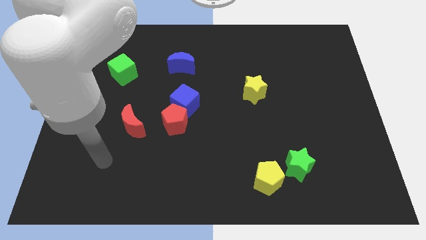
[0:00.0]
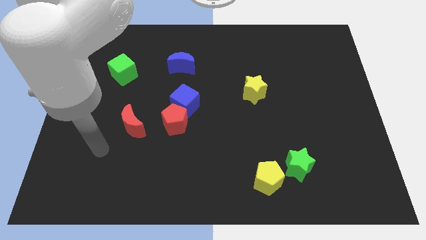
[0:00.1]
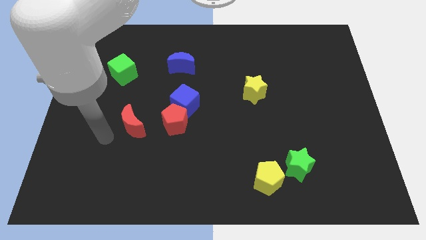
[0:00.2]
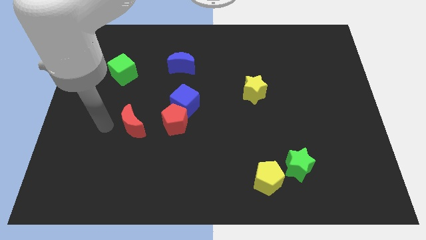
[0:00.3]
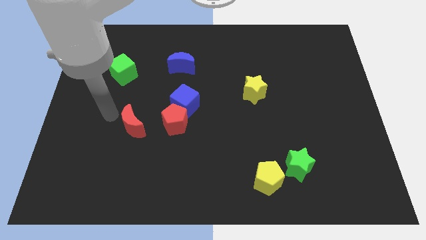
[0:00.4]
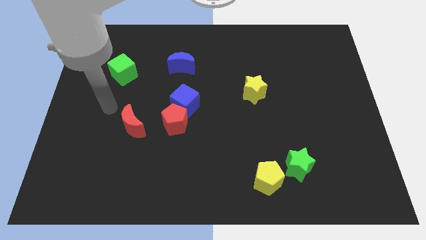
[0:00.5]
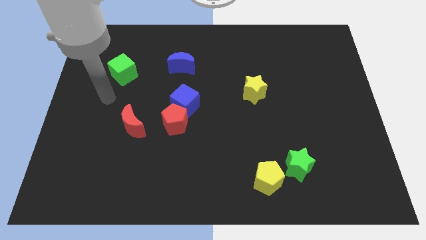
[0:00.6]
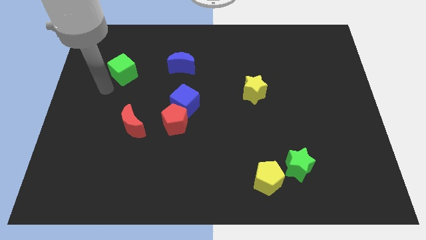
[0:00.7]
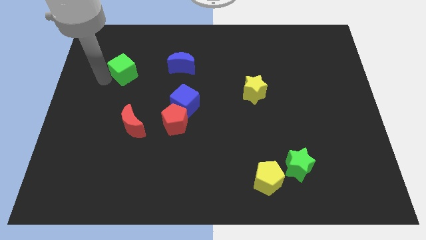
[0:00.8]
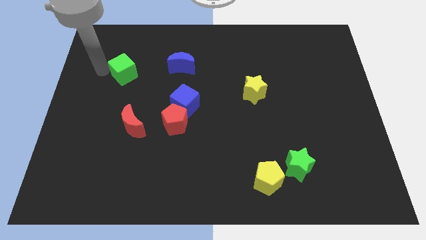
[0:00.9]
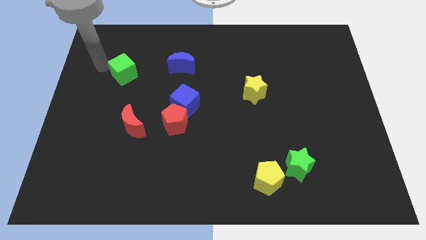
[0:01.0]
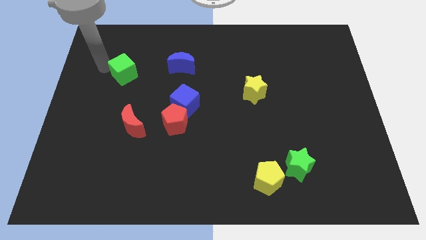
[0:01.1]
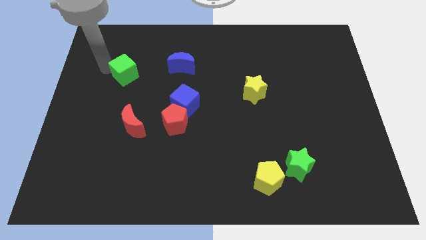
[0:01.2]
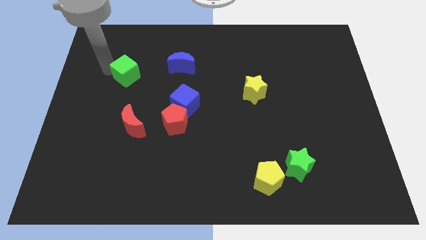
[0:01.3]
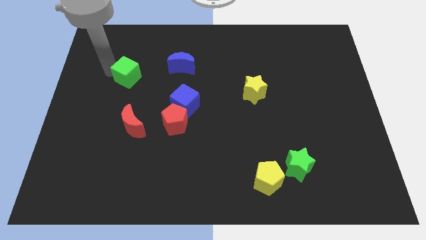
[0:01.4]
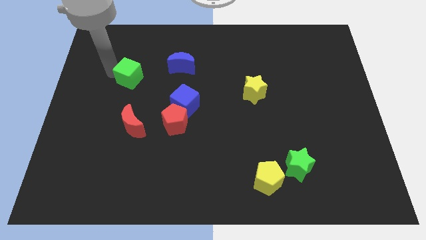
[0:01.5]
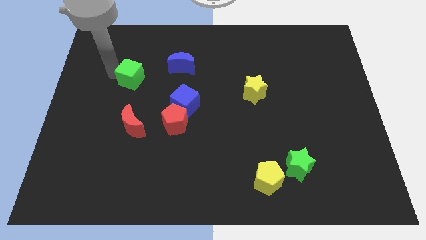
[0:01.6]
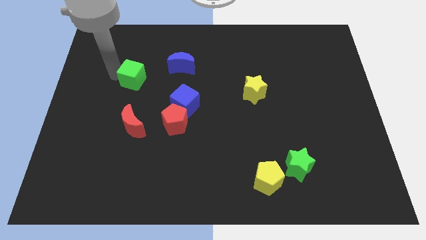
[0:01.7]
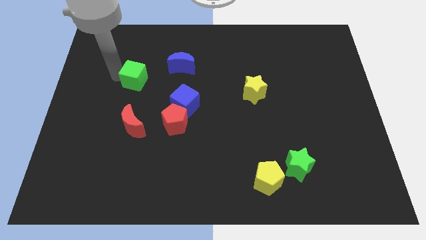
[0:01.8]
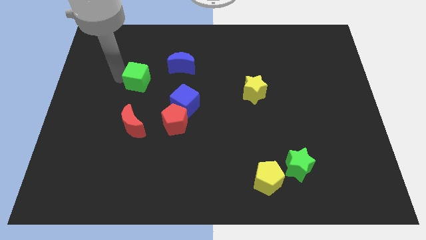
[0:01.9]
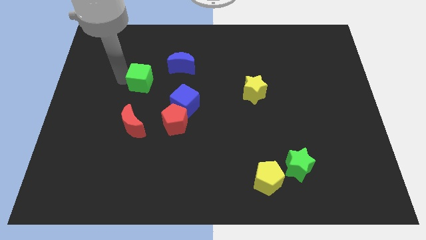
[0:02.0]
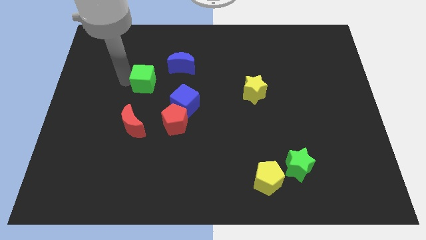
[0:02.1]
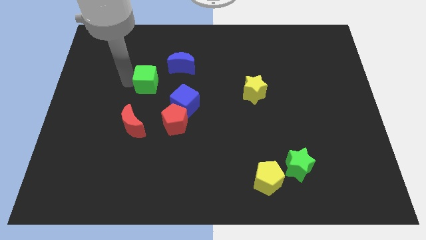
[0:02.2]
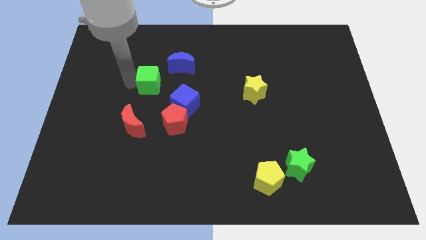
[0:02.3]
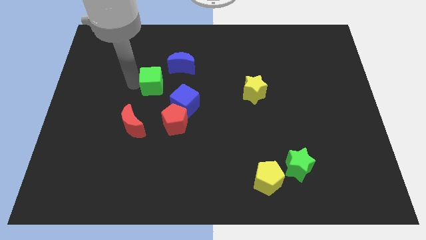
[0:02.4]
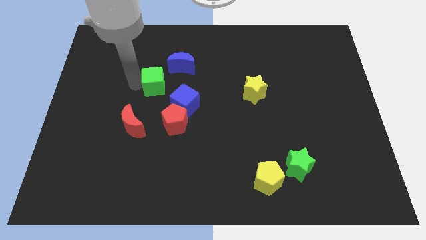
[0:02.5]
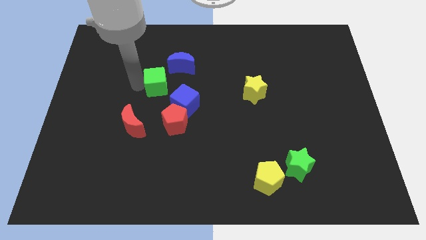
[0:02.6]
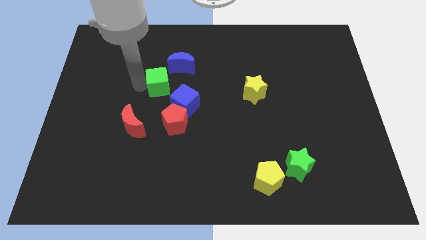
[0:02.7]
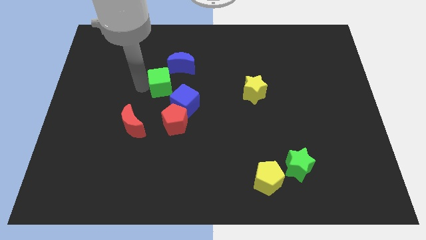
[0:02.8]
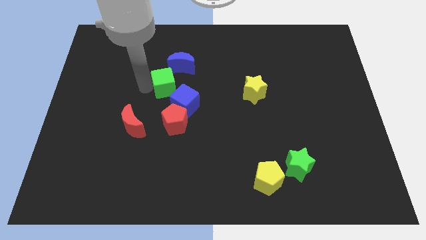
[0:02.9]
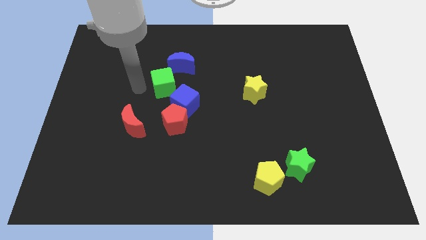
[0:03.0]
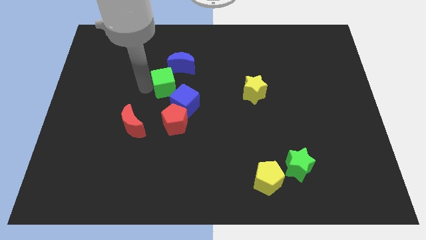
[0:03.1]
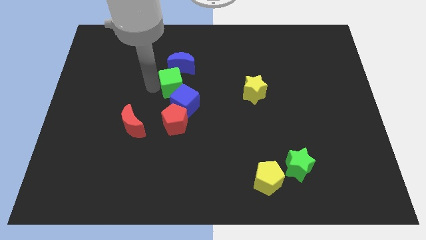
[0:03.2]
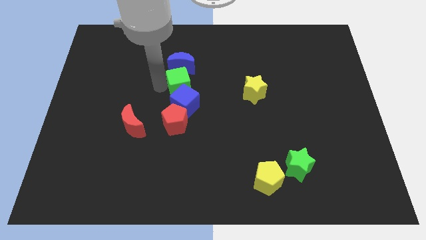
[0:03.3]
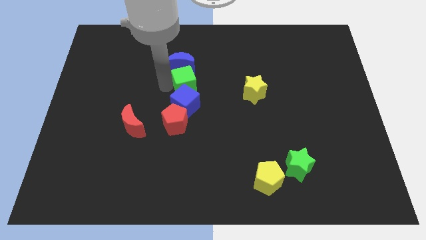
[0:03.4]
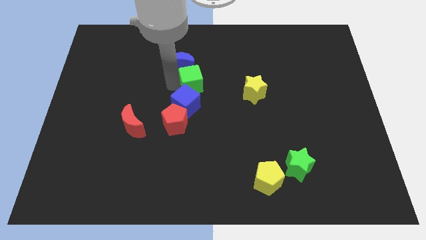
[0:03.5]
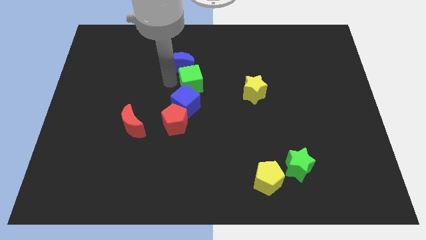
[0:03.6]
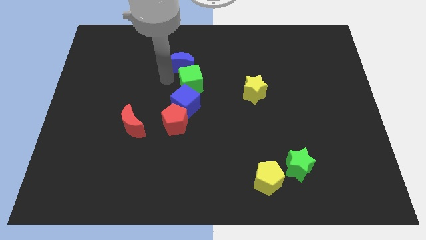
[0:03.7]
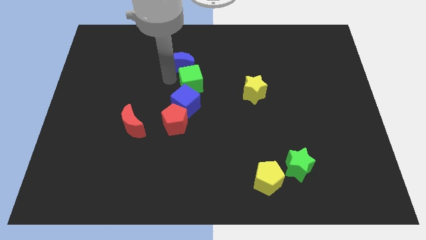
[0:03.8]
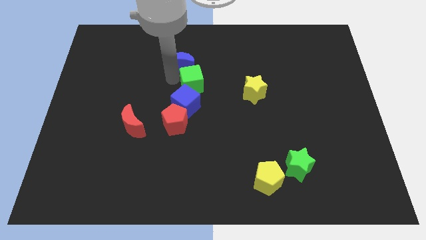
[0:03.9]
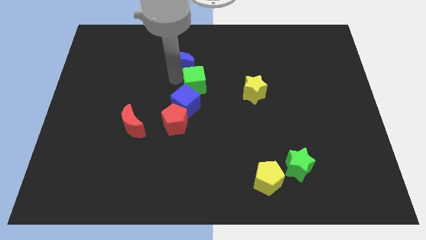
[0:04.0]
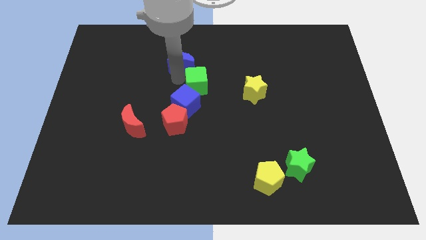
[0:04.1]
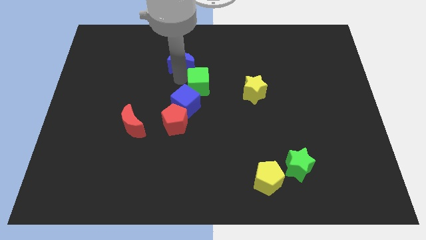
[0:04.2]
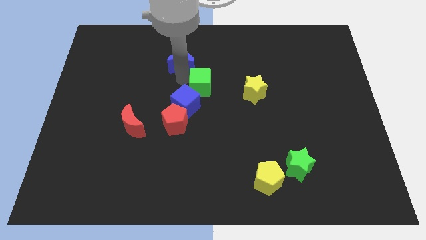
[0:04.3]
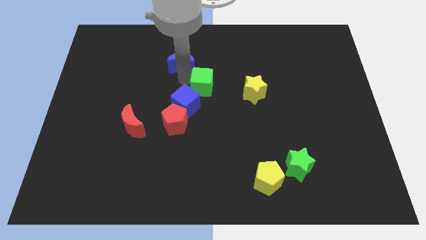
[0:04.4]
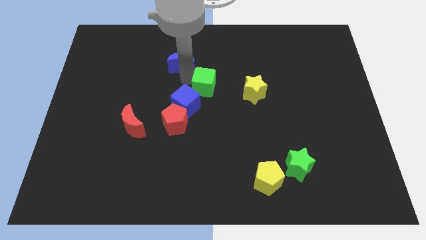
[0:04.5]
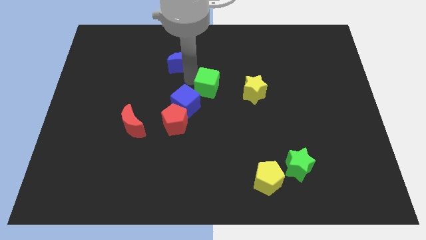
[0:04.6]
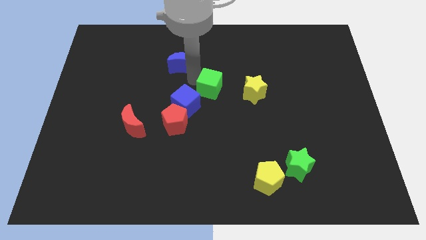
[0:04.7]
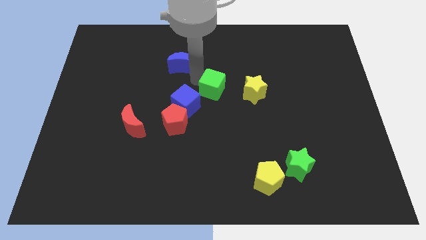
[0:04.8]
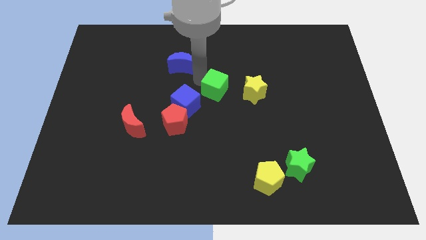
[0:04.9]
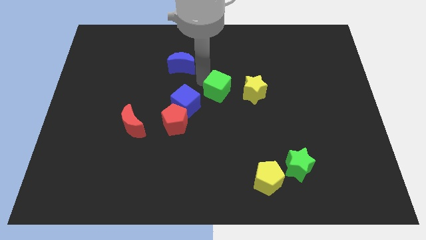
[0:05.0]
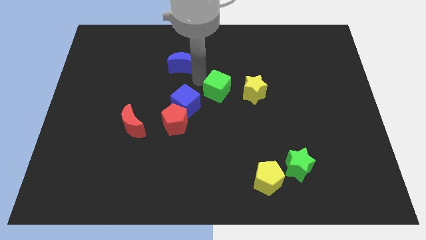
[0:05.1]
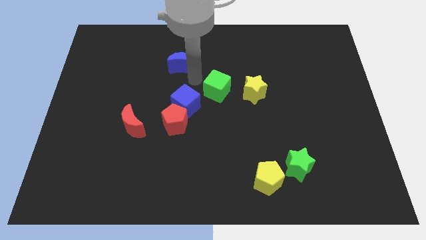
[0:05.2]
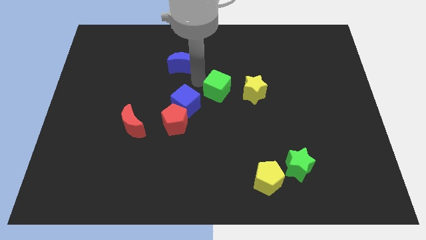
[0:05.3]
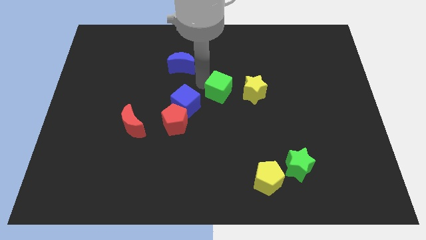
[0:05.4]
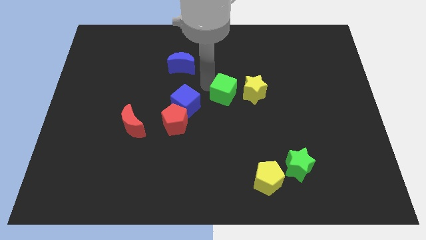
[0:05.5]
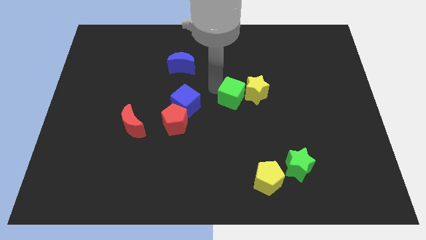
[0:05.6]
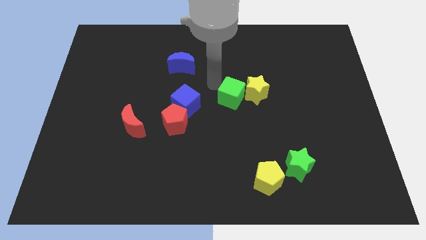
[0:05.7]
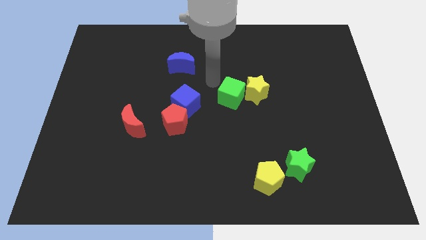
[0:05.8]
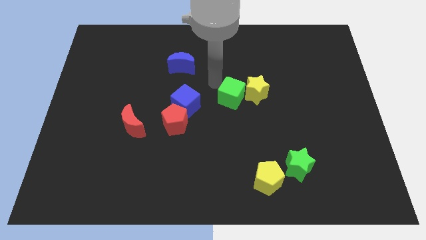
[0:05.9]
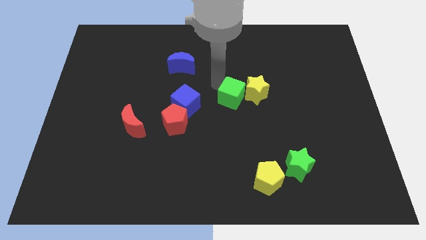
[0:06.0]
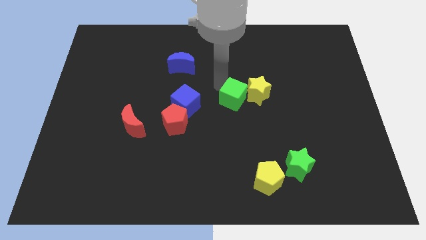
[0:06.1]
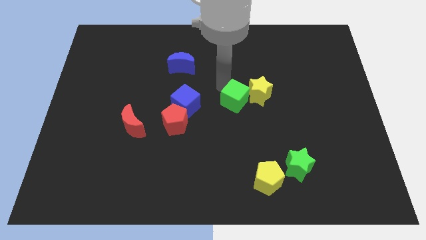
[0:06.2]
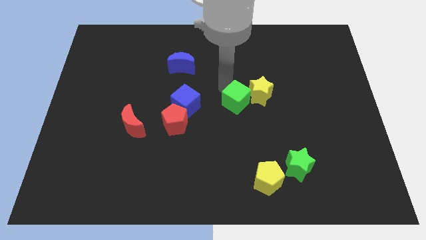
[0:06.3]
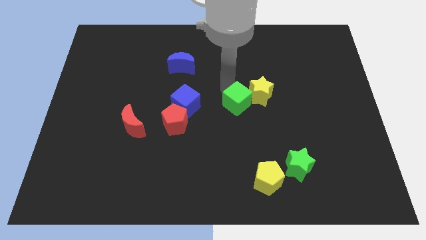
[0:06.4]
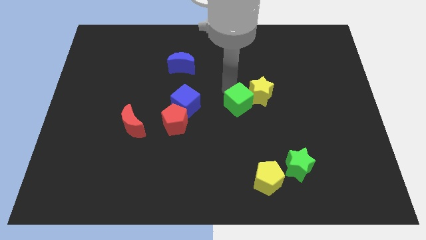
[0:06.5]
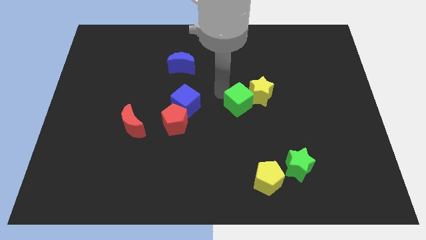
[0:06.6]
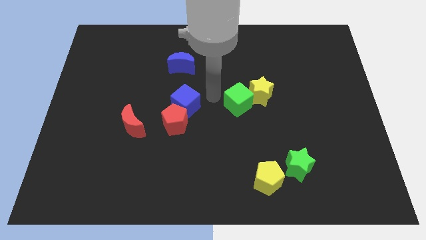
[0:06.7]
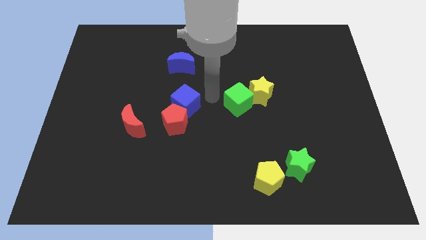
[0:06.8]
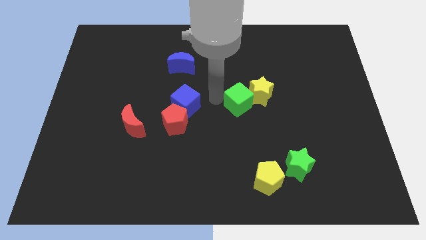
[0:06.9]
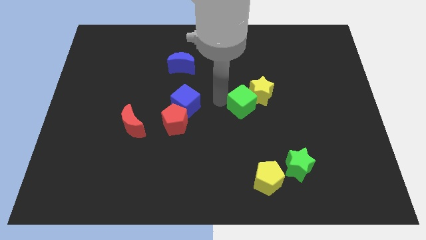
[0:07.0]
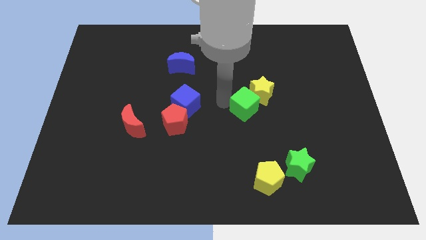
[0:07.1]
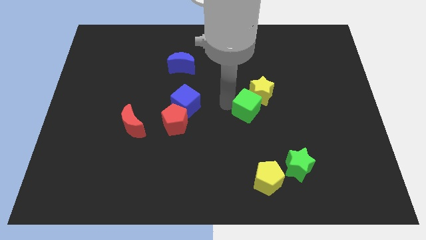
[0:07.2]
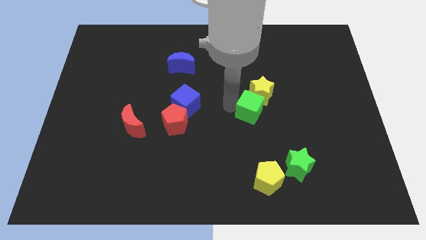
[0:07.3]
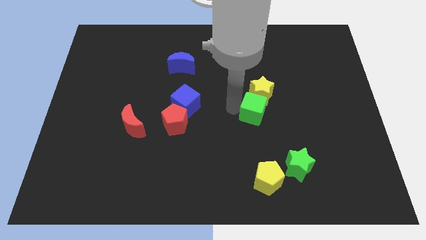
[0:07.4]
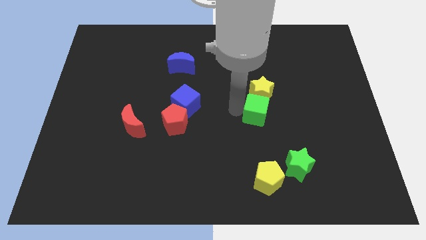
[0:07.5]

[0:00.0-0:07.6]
push the green cube to the bottom right of the yellow star

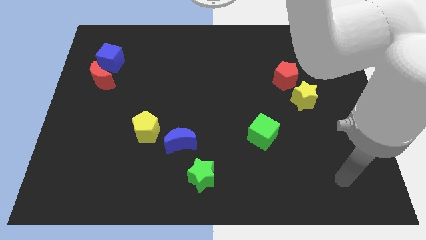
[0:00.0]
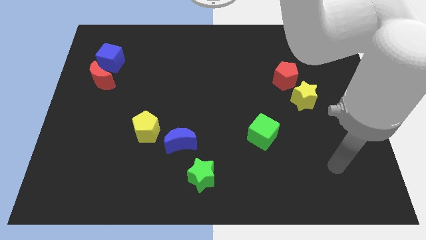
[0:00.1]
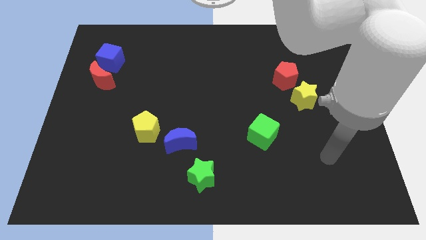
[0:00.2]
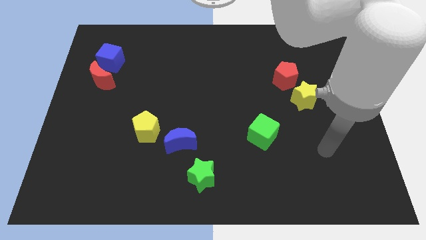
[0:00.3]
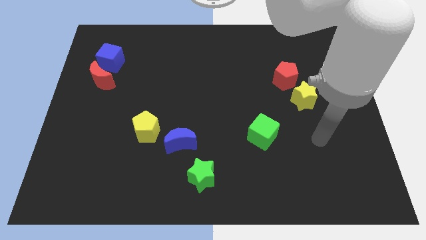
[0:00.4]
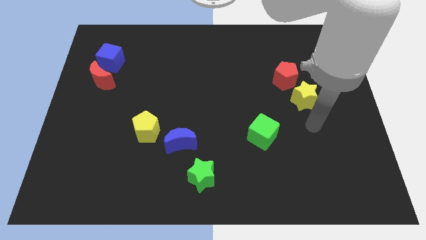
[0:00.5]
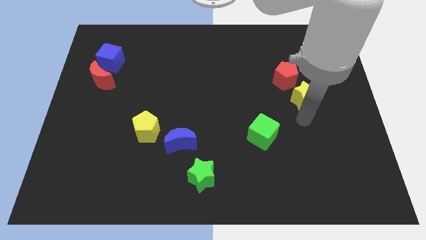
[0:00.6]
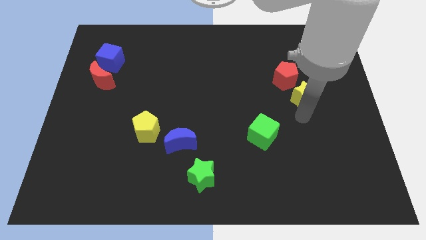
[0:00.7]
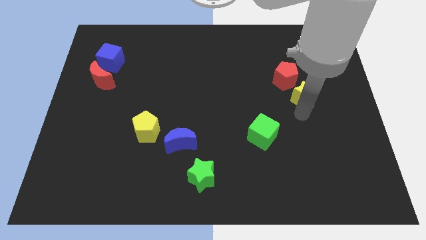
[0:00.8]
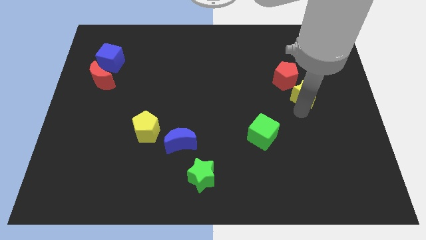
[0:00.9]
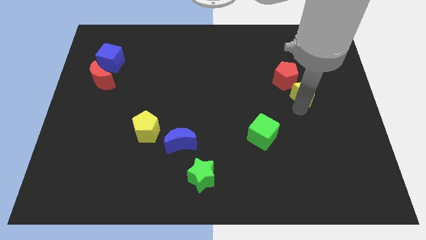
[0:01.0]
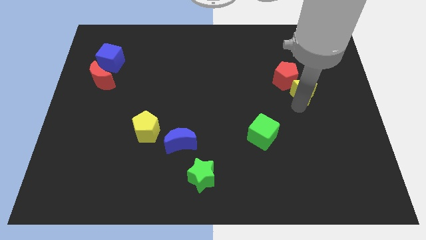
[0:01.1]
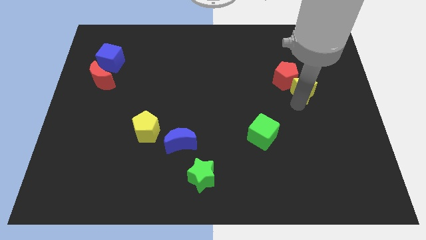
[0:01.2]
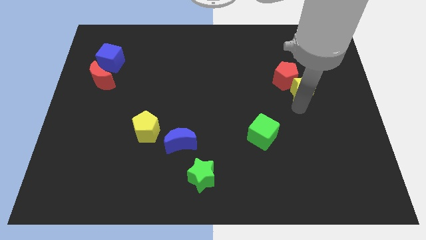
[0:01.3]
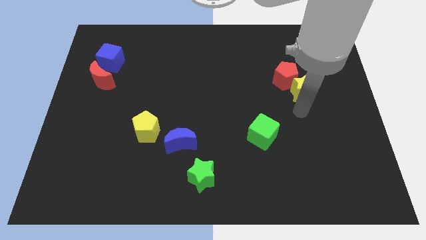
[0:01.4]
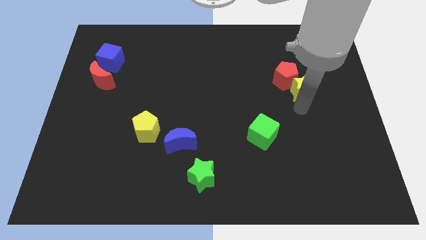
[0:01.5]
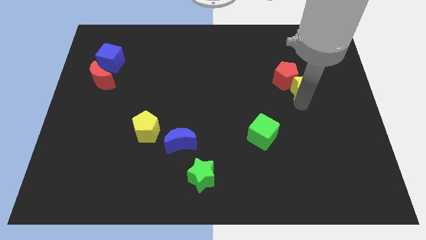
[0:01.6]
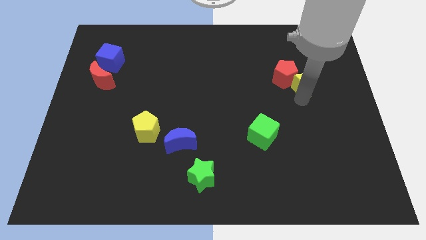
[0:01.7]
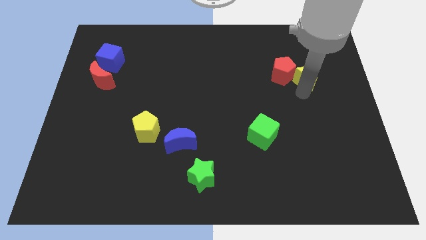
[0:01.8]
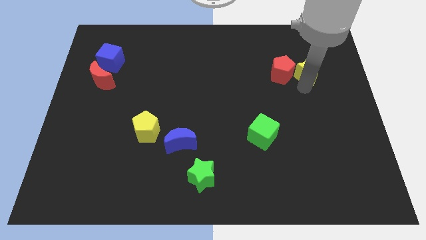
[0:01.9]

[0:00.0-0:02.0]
slide the yellow star to the top right of the red pentagon
